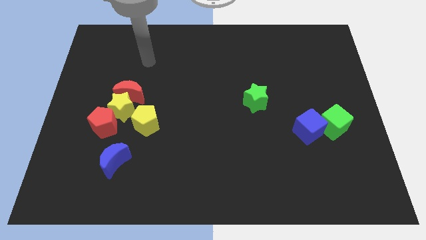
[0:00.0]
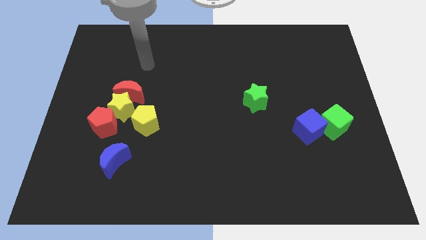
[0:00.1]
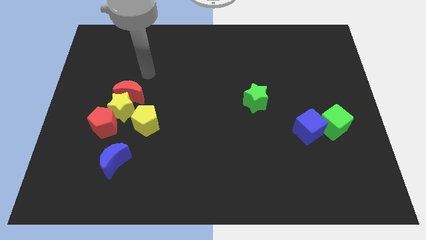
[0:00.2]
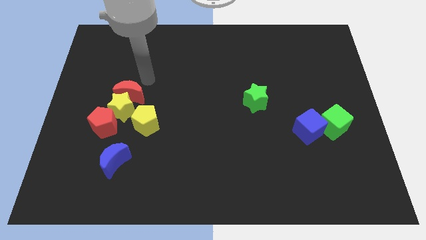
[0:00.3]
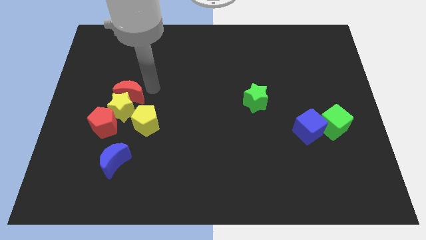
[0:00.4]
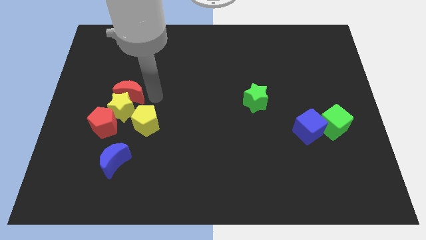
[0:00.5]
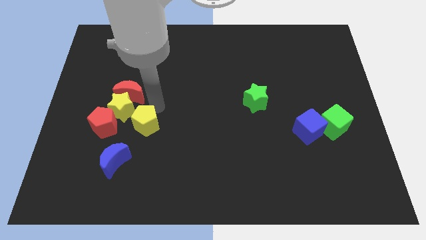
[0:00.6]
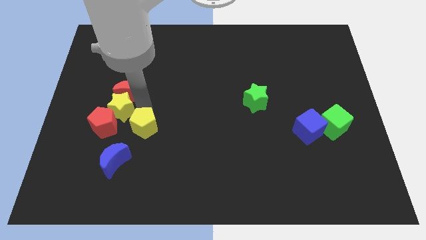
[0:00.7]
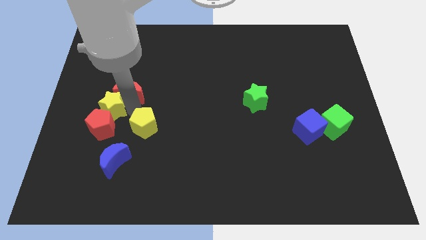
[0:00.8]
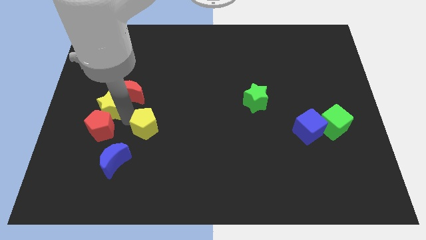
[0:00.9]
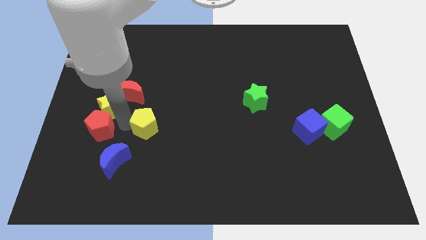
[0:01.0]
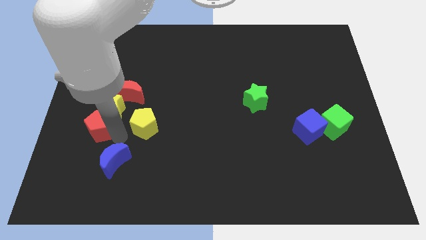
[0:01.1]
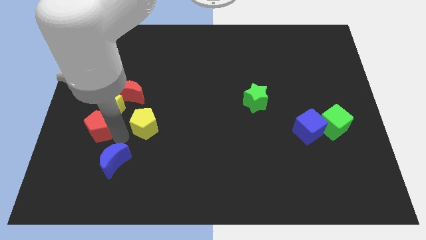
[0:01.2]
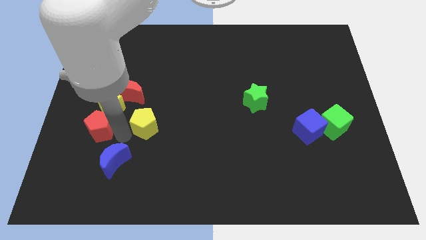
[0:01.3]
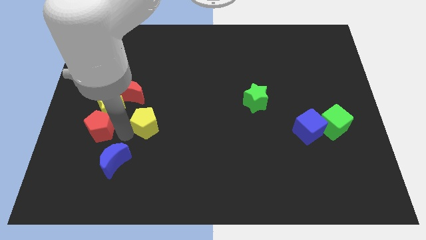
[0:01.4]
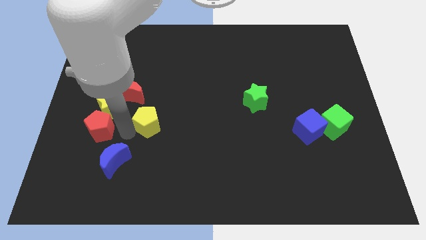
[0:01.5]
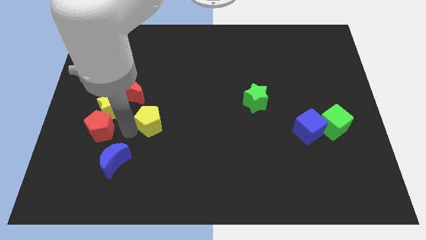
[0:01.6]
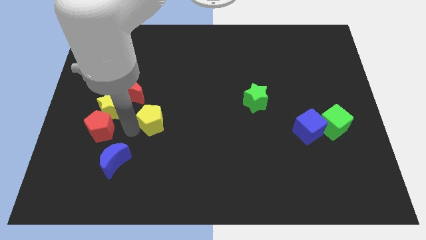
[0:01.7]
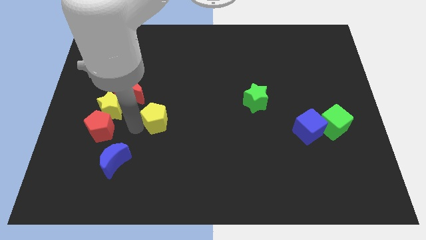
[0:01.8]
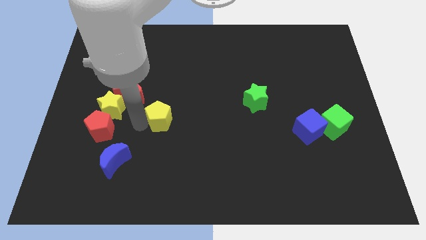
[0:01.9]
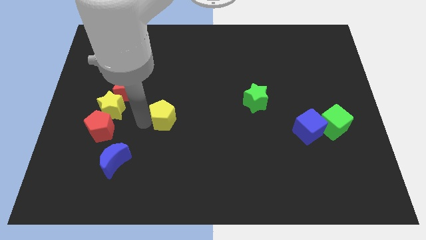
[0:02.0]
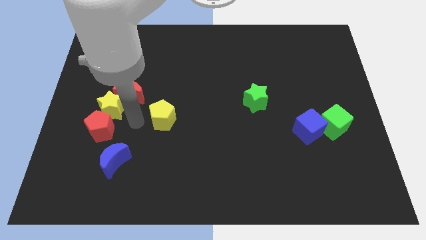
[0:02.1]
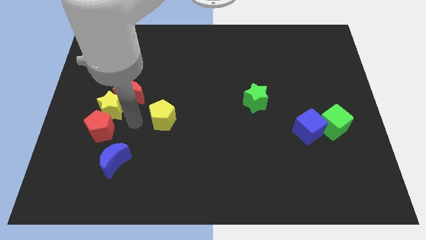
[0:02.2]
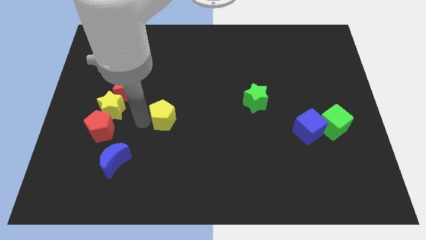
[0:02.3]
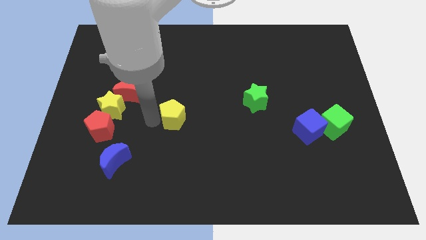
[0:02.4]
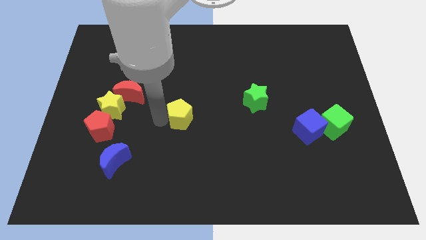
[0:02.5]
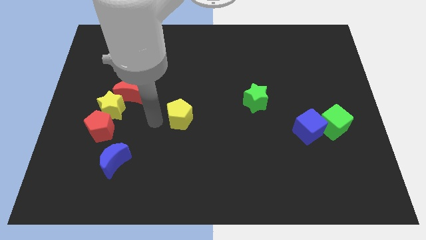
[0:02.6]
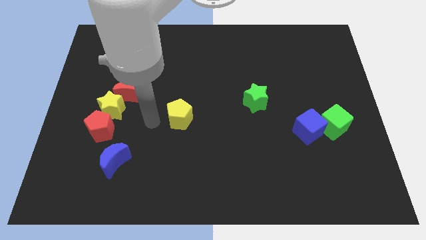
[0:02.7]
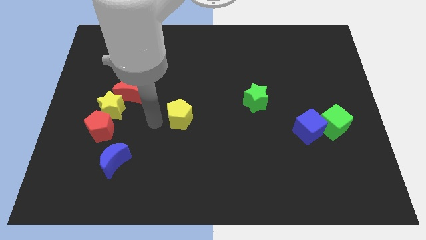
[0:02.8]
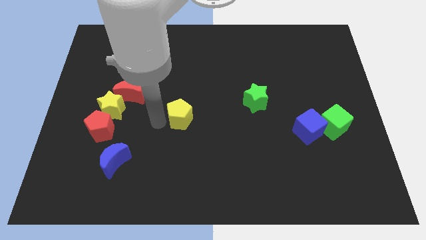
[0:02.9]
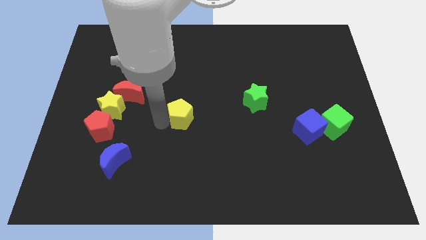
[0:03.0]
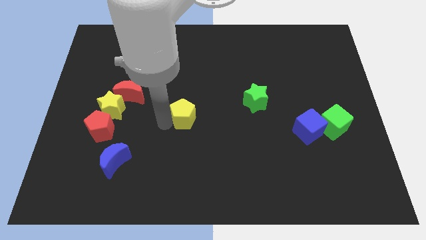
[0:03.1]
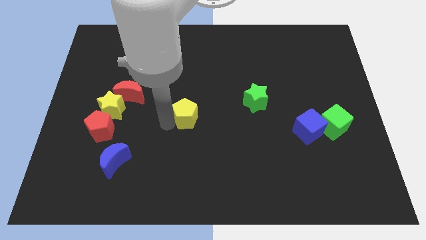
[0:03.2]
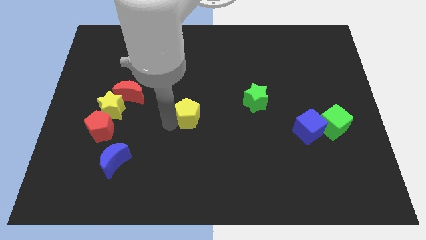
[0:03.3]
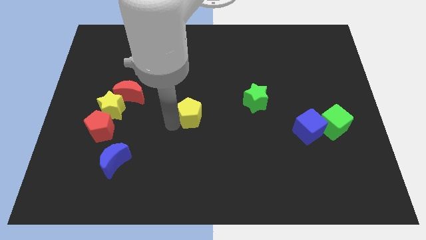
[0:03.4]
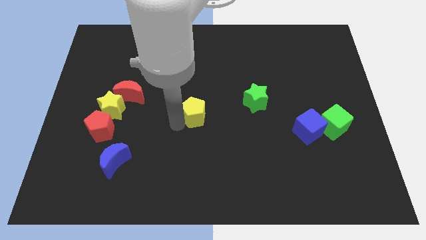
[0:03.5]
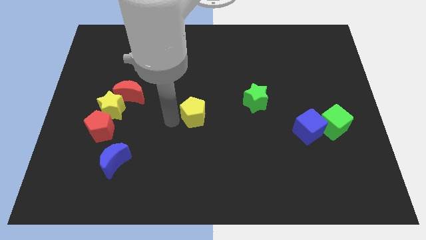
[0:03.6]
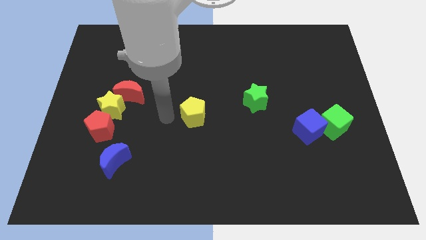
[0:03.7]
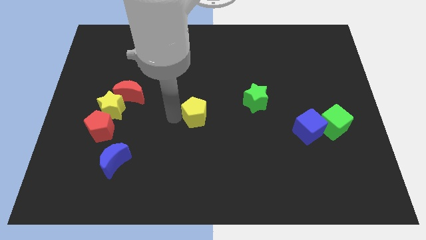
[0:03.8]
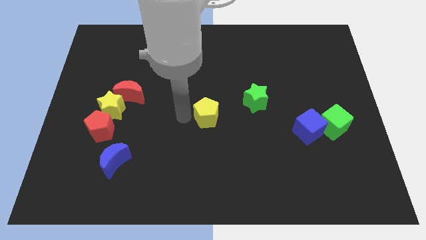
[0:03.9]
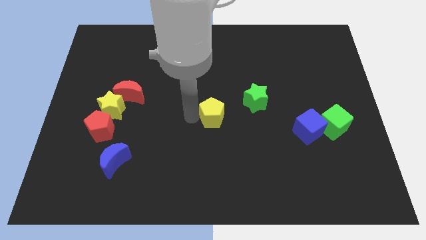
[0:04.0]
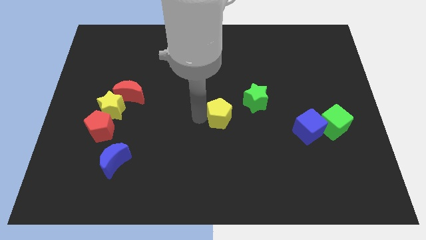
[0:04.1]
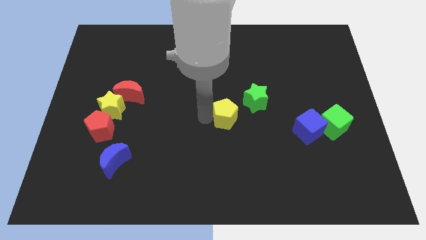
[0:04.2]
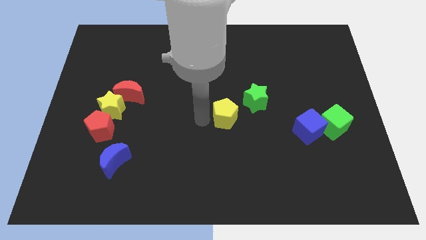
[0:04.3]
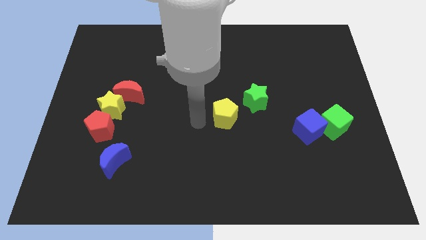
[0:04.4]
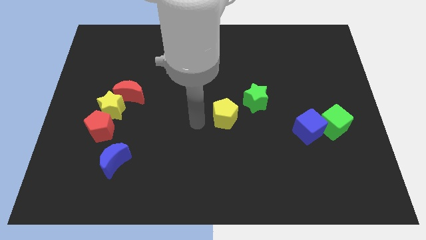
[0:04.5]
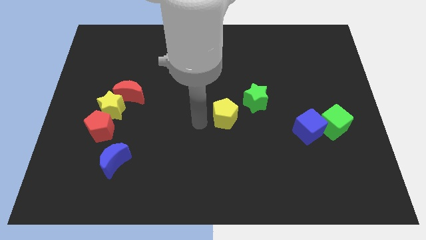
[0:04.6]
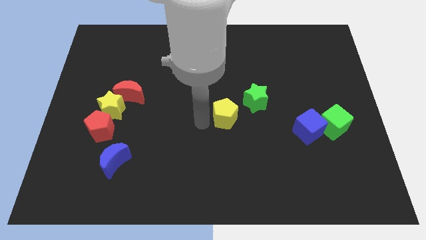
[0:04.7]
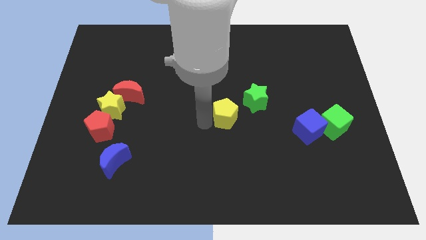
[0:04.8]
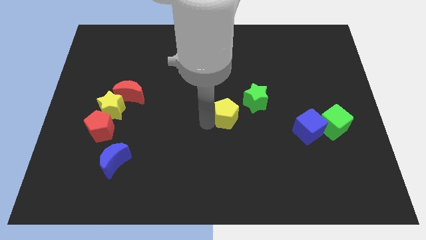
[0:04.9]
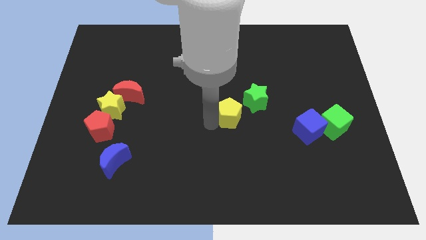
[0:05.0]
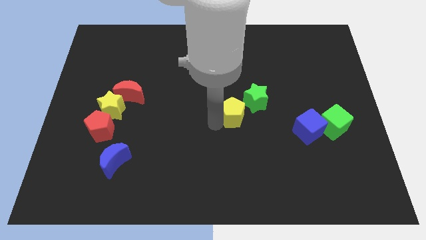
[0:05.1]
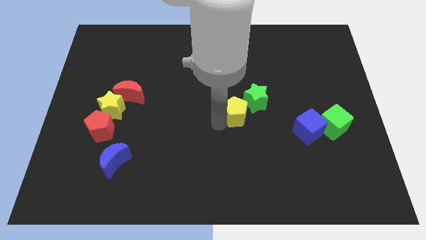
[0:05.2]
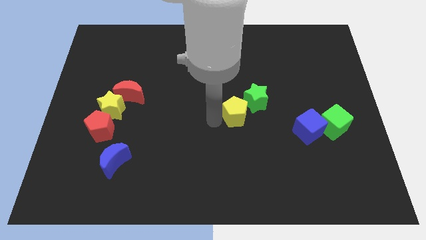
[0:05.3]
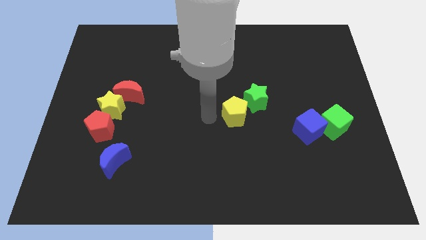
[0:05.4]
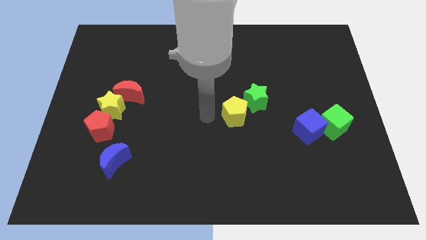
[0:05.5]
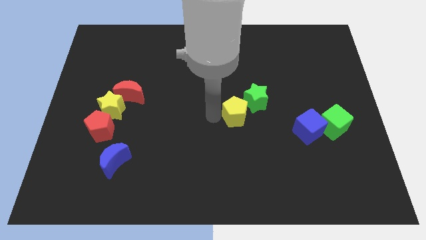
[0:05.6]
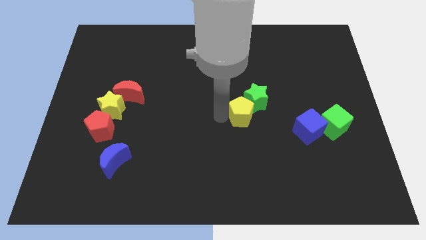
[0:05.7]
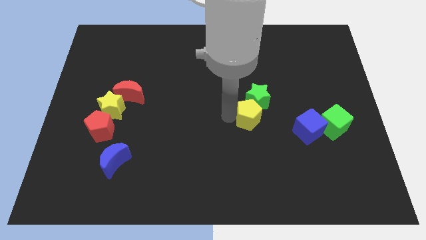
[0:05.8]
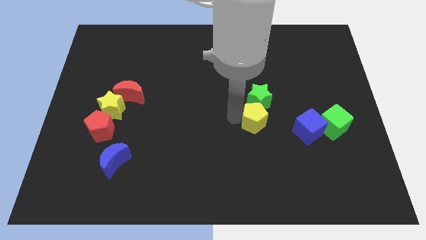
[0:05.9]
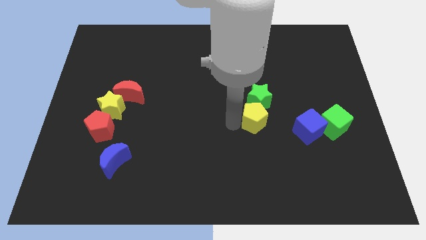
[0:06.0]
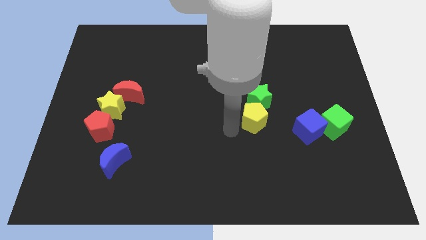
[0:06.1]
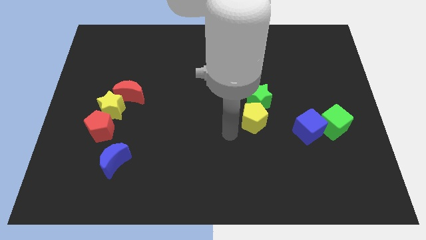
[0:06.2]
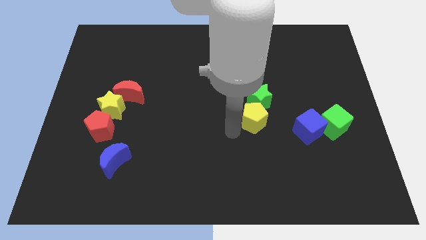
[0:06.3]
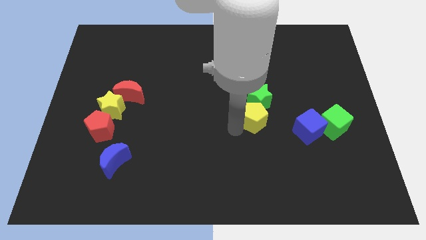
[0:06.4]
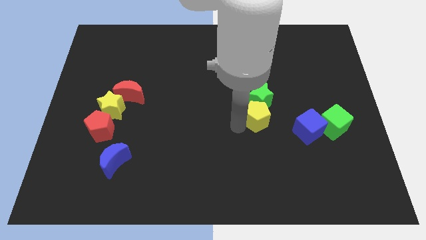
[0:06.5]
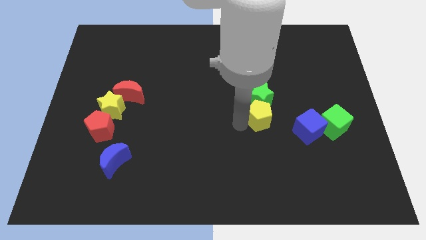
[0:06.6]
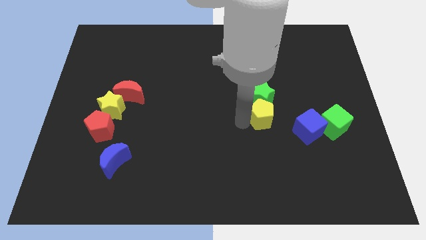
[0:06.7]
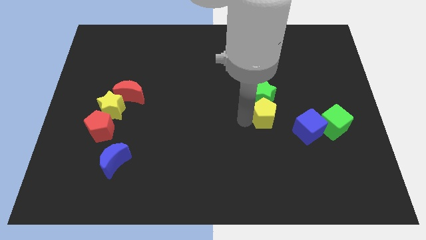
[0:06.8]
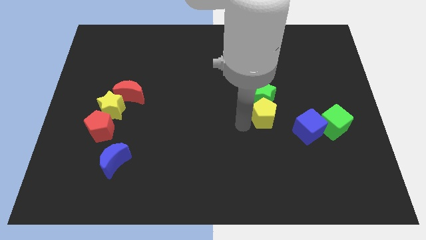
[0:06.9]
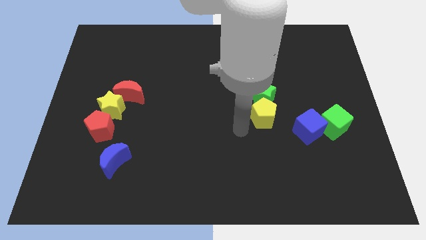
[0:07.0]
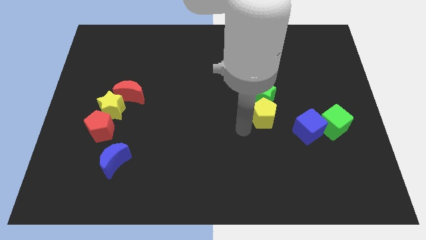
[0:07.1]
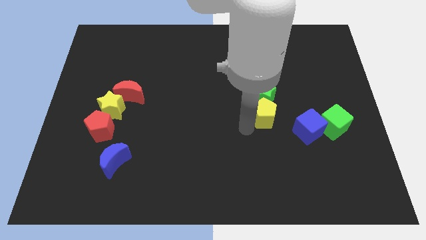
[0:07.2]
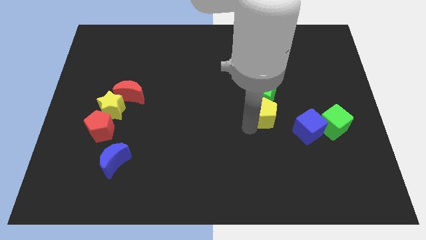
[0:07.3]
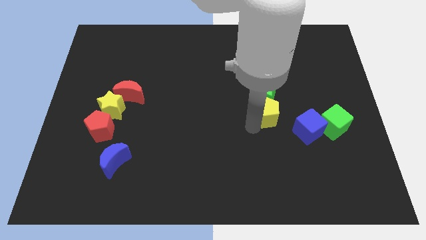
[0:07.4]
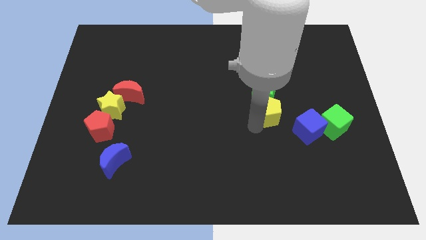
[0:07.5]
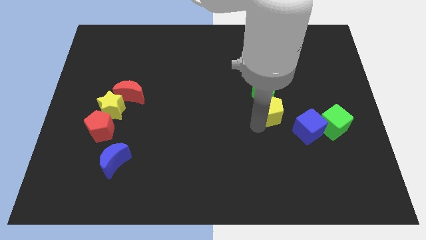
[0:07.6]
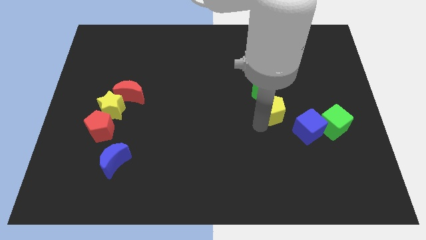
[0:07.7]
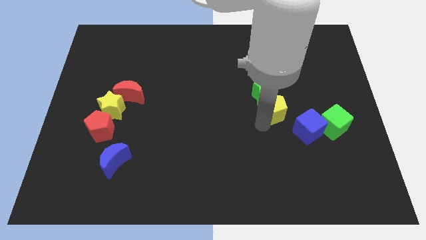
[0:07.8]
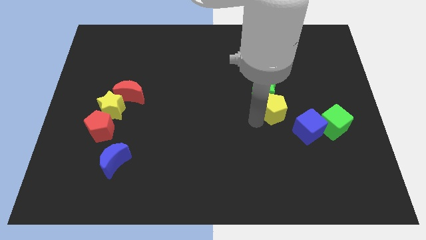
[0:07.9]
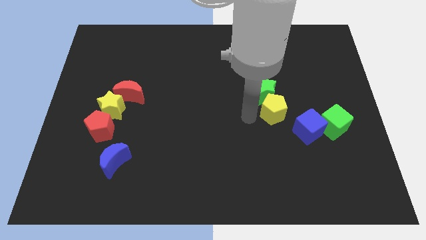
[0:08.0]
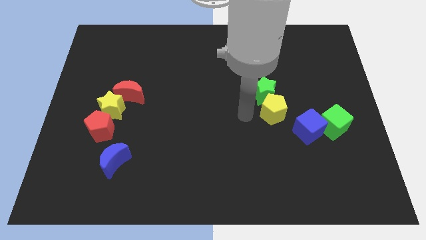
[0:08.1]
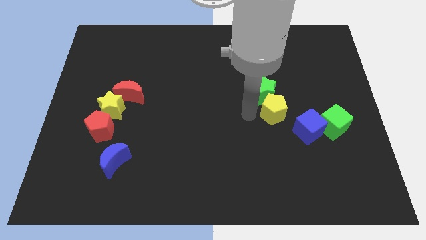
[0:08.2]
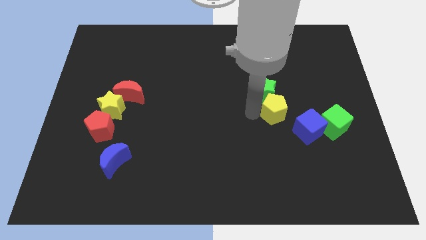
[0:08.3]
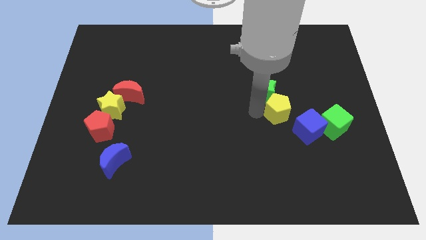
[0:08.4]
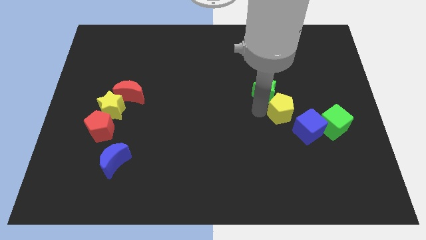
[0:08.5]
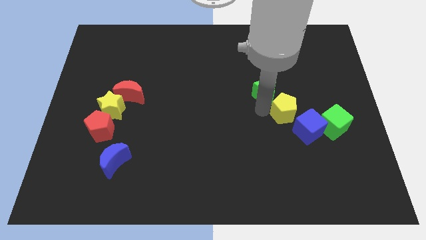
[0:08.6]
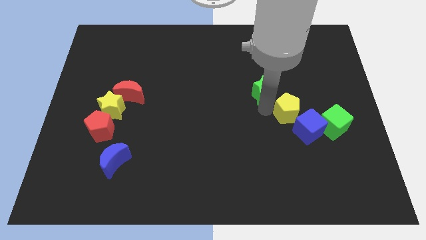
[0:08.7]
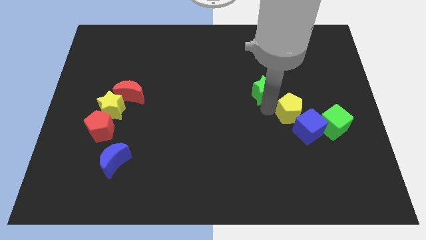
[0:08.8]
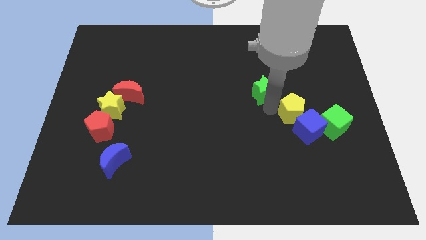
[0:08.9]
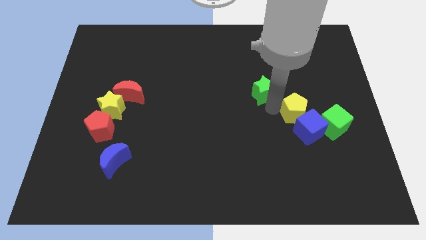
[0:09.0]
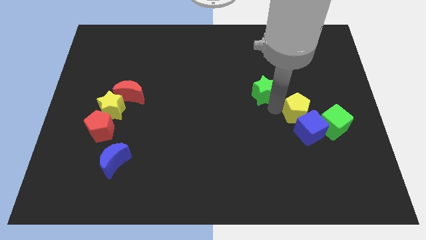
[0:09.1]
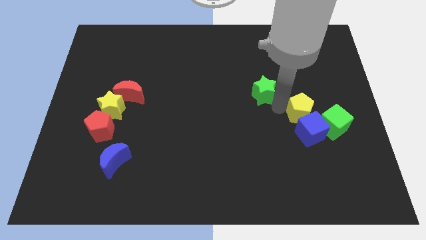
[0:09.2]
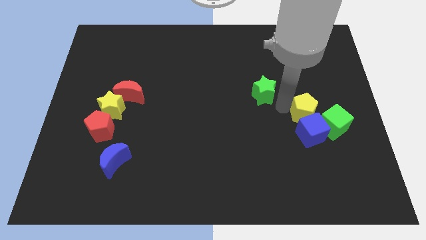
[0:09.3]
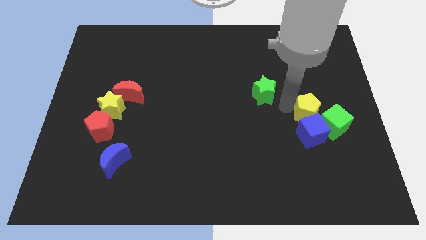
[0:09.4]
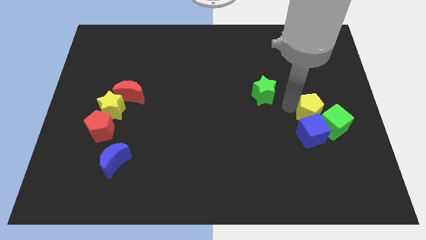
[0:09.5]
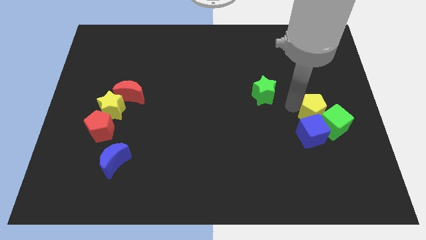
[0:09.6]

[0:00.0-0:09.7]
push the yellow pentagon to the green cube
